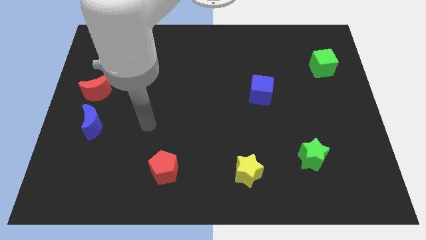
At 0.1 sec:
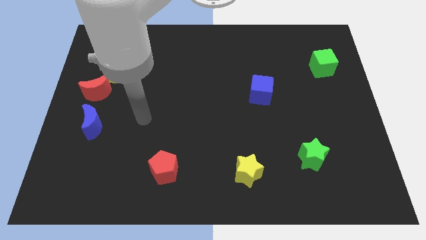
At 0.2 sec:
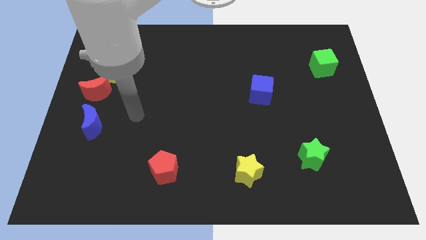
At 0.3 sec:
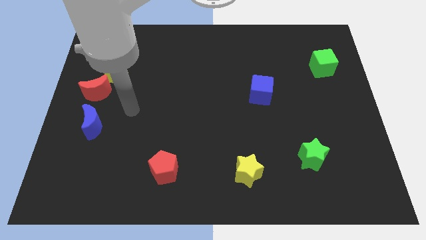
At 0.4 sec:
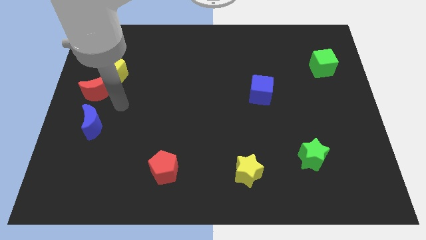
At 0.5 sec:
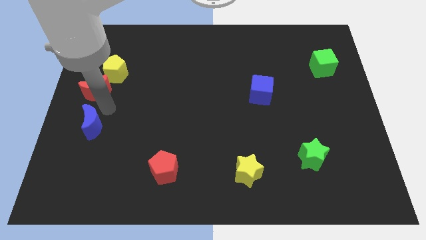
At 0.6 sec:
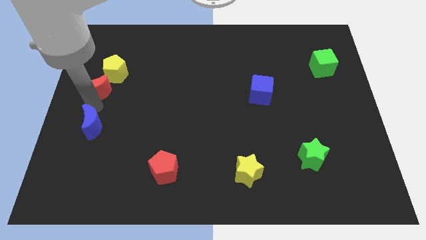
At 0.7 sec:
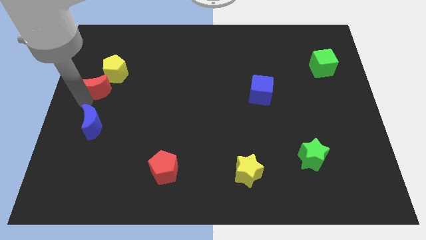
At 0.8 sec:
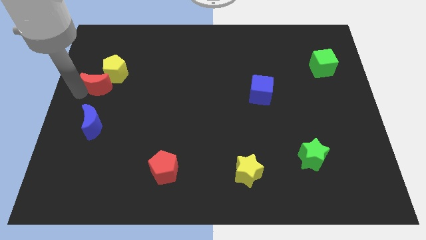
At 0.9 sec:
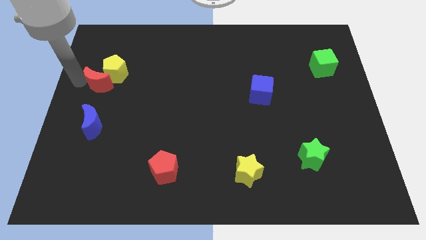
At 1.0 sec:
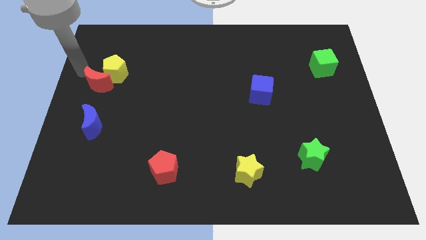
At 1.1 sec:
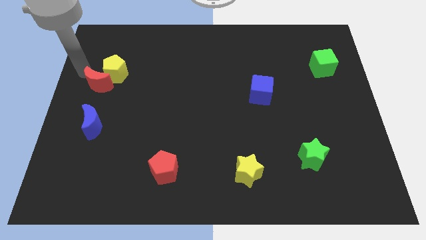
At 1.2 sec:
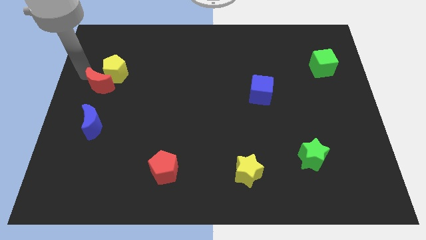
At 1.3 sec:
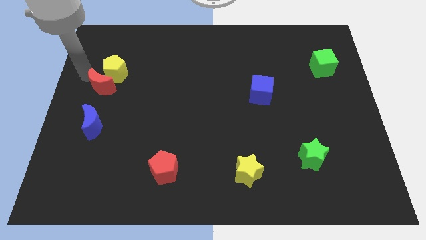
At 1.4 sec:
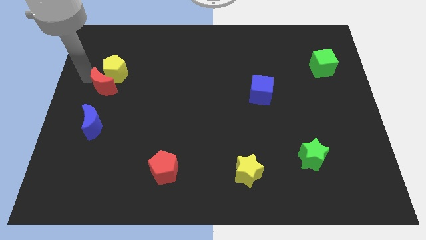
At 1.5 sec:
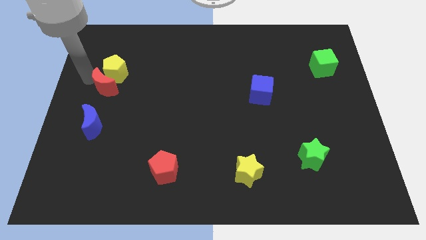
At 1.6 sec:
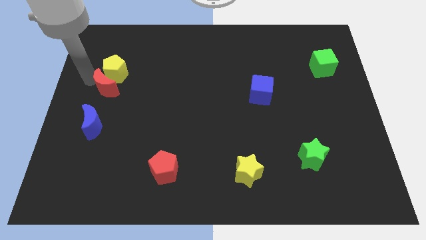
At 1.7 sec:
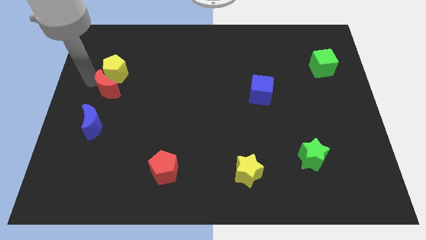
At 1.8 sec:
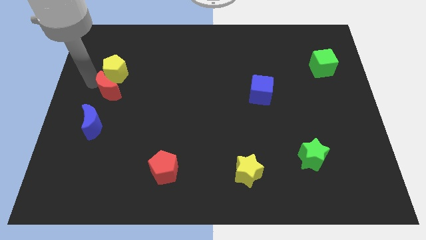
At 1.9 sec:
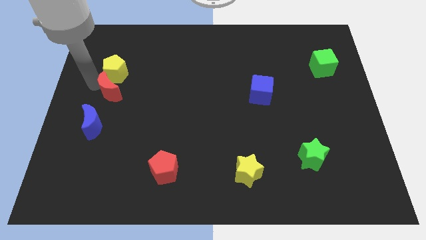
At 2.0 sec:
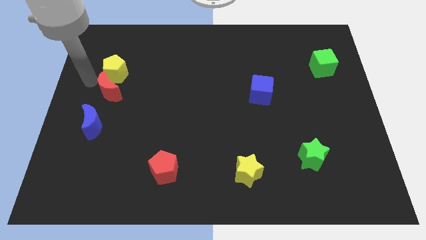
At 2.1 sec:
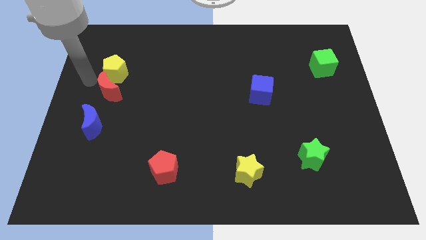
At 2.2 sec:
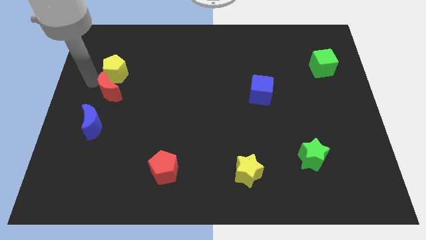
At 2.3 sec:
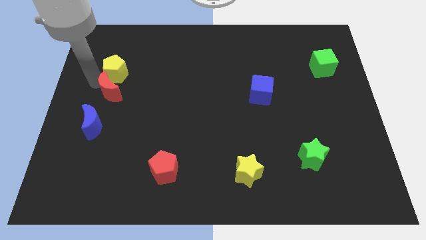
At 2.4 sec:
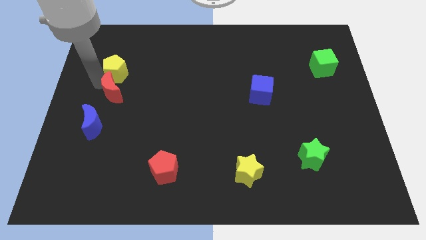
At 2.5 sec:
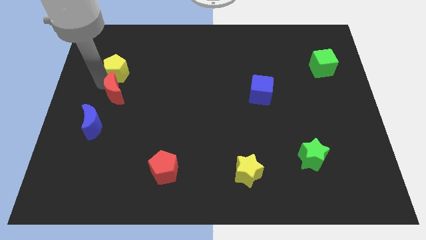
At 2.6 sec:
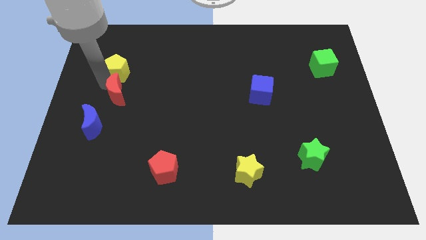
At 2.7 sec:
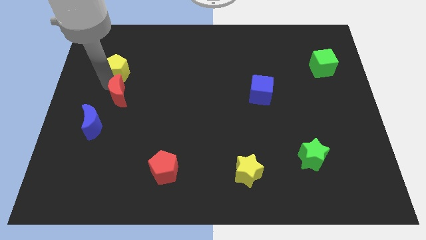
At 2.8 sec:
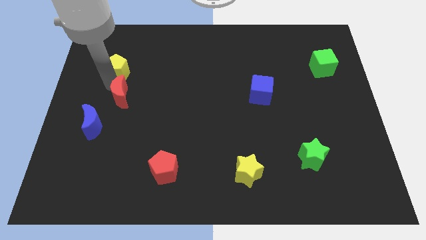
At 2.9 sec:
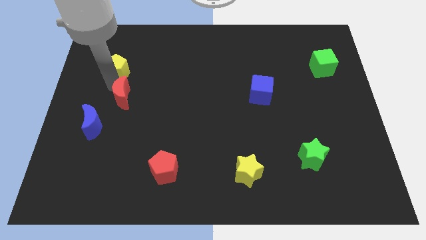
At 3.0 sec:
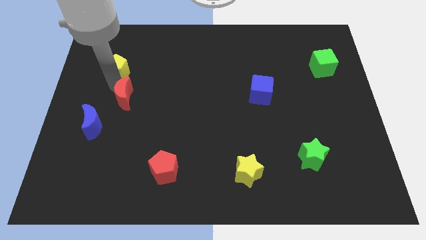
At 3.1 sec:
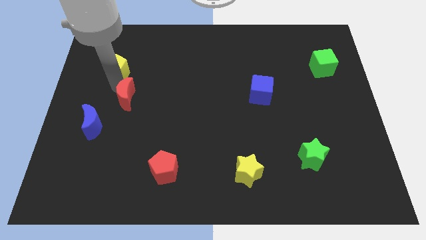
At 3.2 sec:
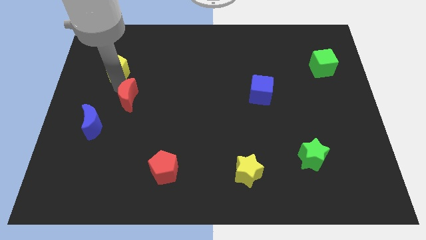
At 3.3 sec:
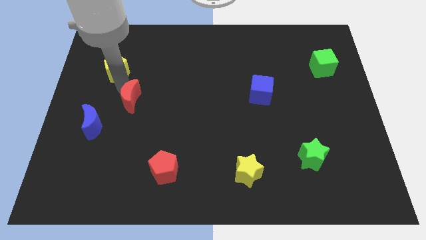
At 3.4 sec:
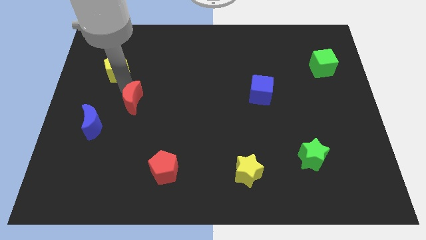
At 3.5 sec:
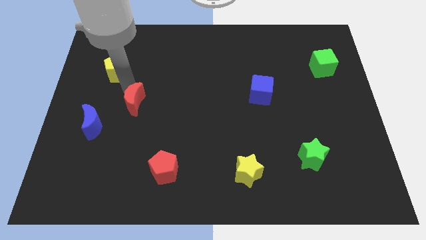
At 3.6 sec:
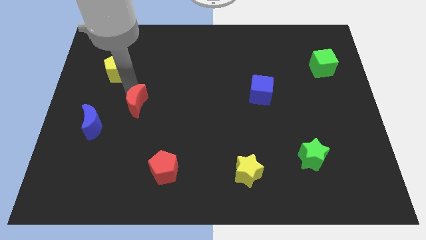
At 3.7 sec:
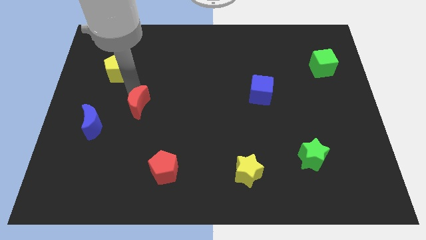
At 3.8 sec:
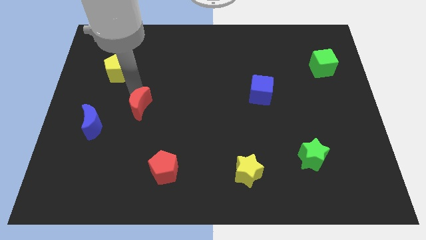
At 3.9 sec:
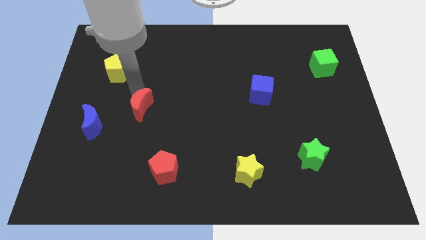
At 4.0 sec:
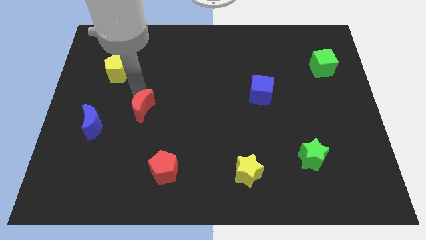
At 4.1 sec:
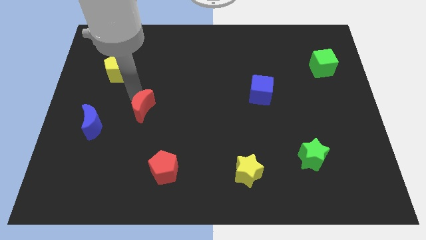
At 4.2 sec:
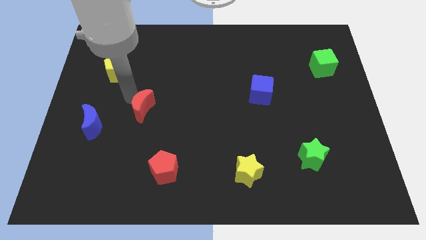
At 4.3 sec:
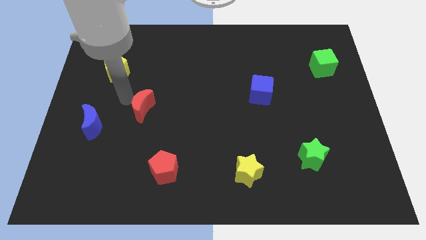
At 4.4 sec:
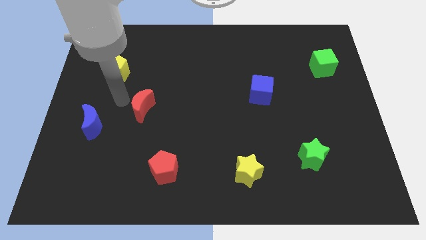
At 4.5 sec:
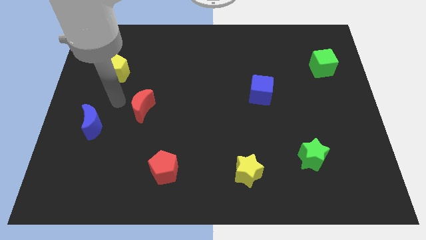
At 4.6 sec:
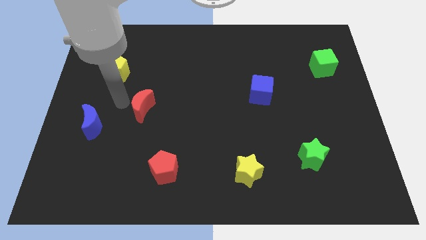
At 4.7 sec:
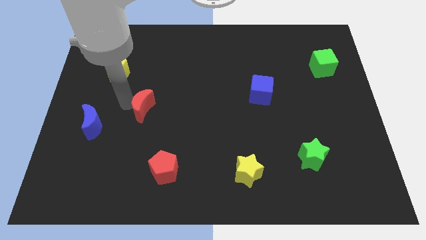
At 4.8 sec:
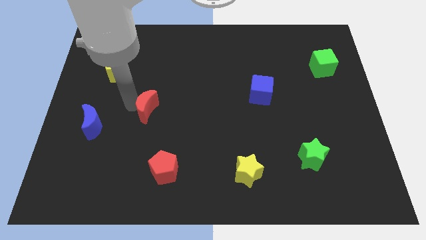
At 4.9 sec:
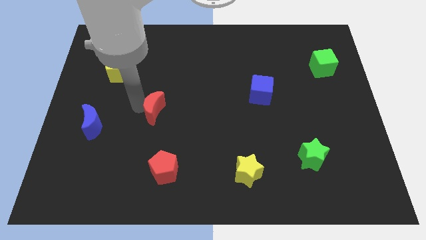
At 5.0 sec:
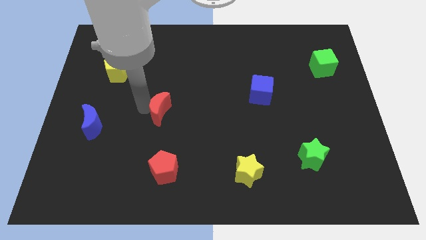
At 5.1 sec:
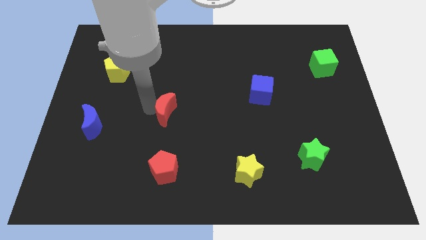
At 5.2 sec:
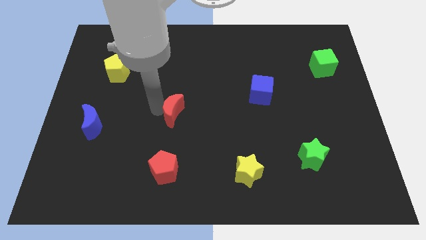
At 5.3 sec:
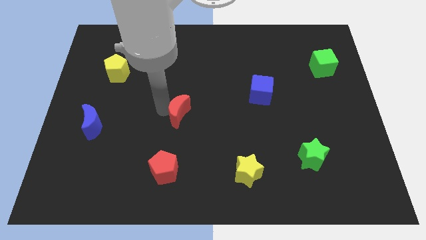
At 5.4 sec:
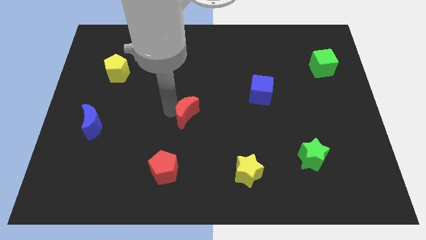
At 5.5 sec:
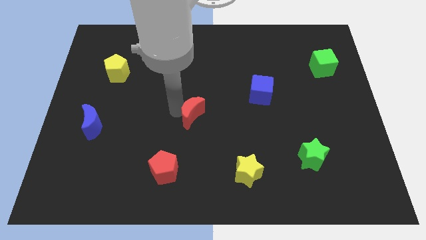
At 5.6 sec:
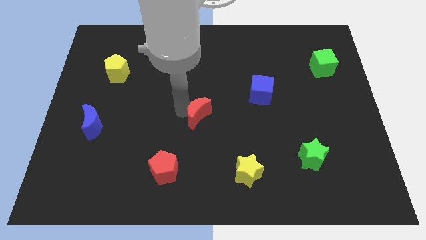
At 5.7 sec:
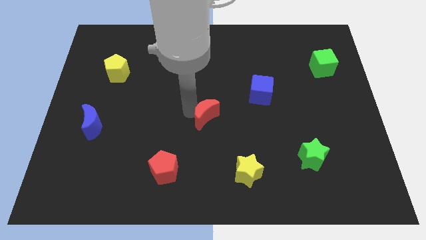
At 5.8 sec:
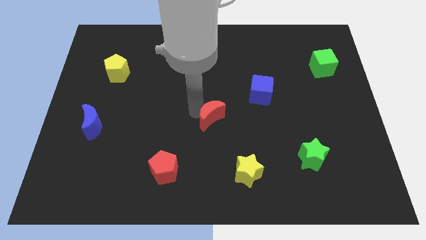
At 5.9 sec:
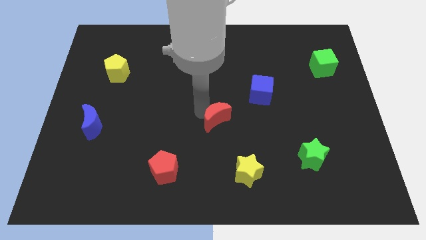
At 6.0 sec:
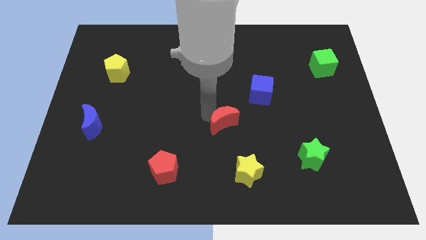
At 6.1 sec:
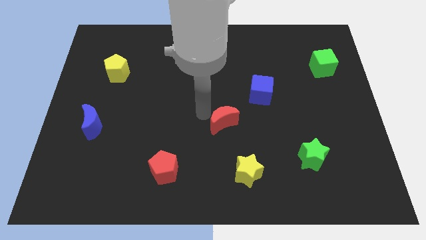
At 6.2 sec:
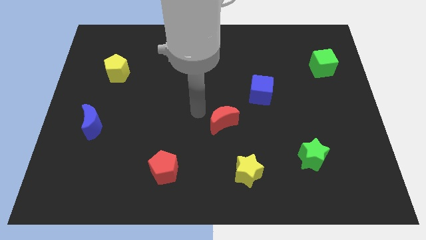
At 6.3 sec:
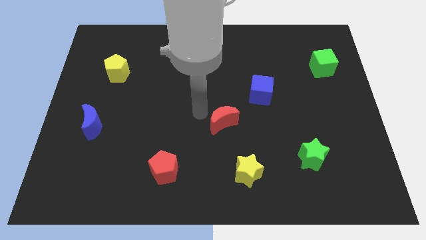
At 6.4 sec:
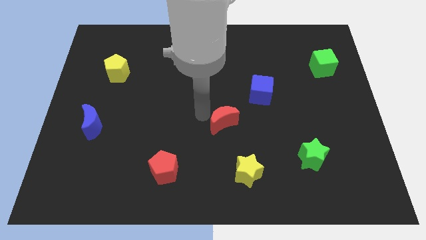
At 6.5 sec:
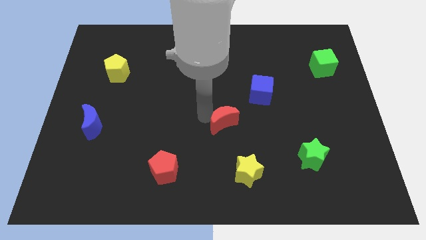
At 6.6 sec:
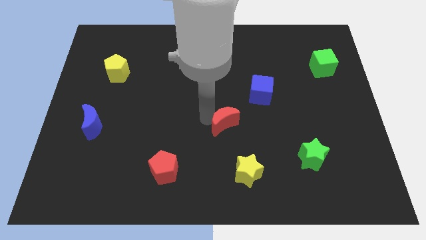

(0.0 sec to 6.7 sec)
push the red moon to the top of the yellow star
